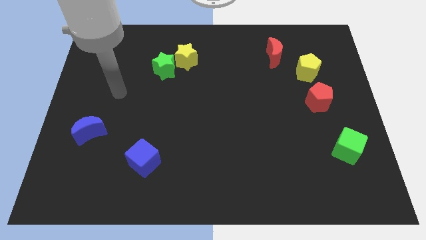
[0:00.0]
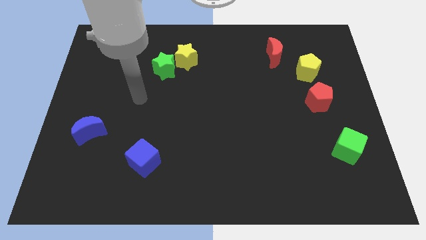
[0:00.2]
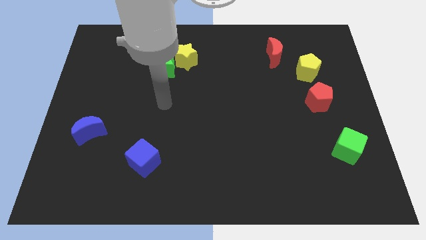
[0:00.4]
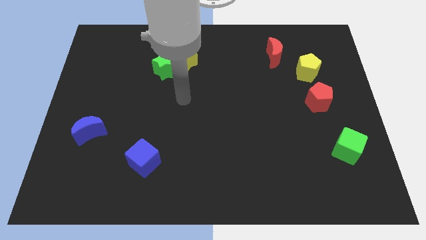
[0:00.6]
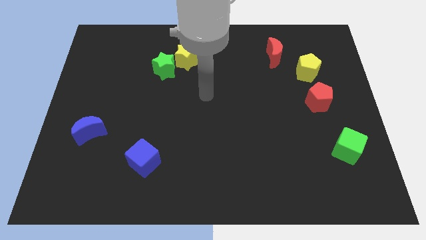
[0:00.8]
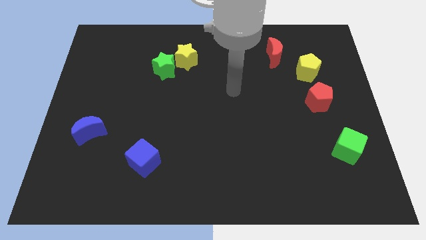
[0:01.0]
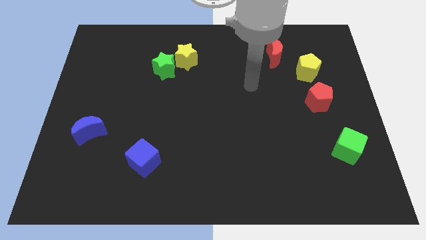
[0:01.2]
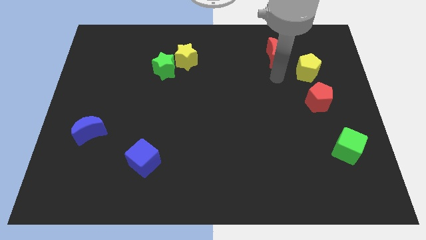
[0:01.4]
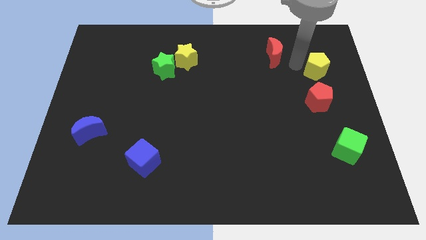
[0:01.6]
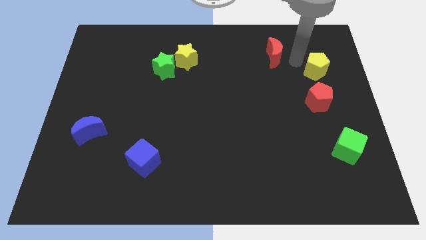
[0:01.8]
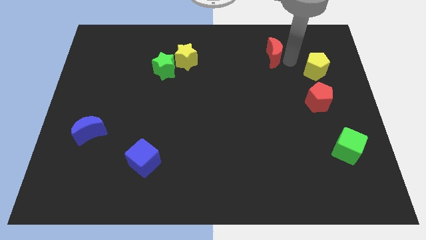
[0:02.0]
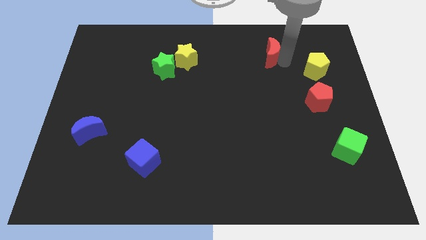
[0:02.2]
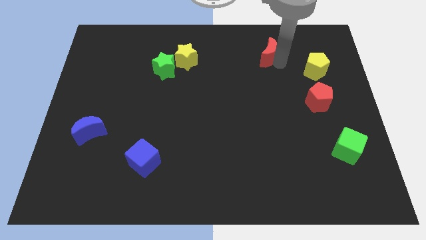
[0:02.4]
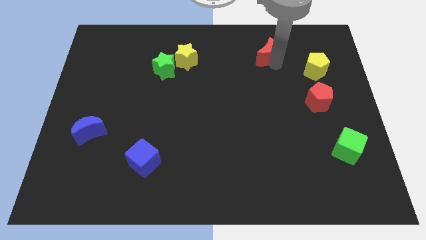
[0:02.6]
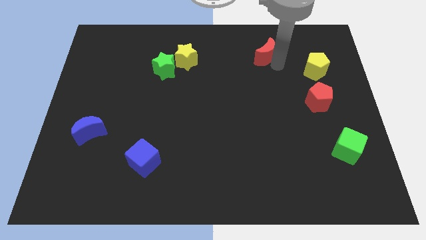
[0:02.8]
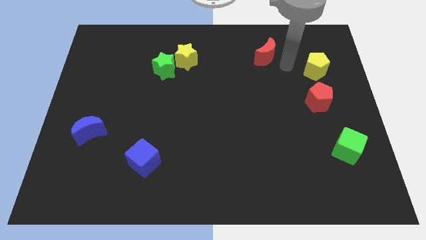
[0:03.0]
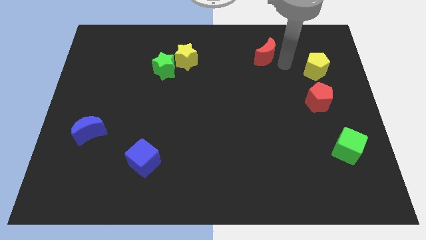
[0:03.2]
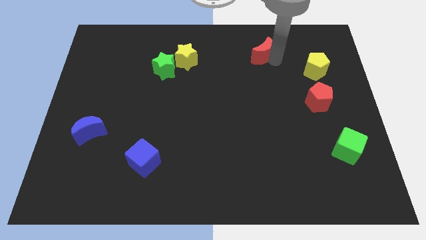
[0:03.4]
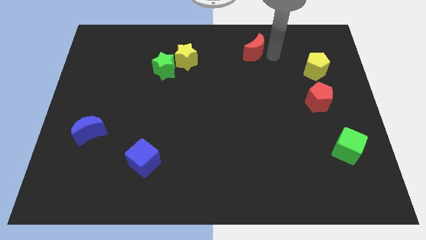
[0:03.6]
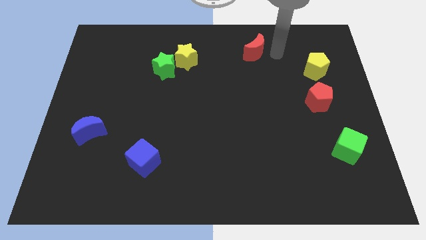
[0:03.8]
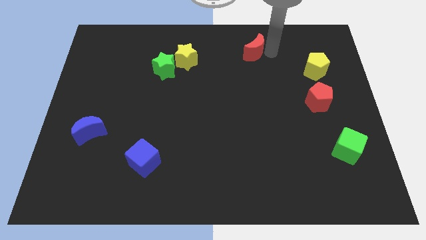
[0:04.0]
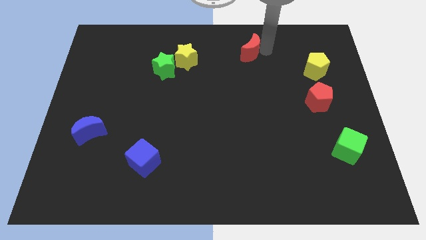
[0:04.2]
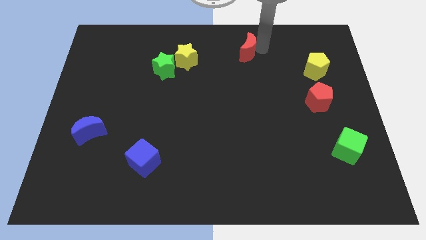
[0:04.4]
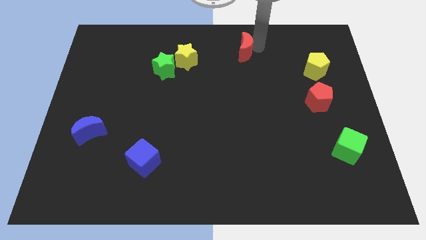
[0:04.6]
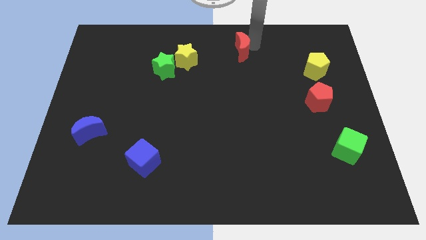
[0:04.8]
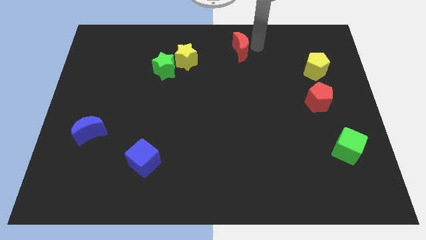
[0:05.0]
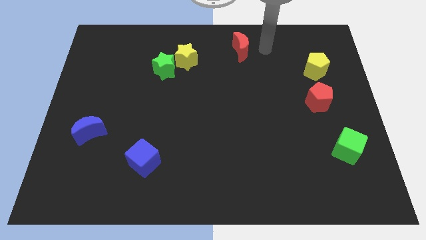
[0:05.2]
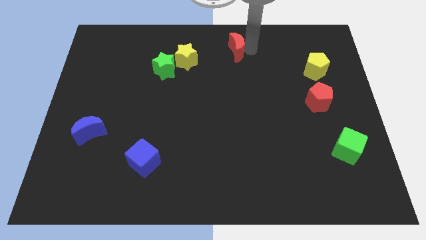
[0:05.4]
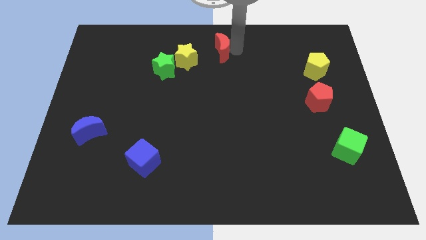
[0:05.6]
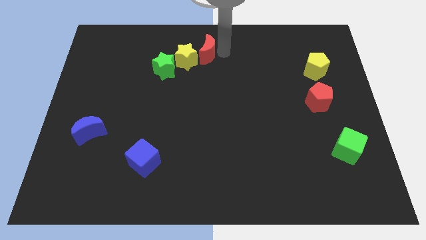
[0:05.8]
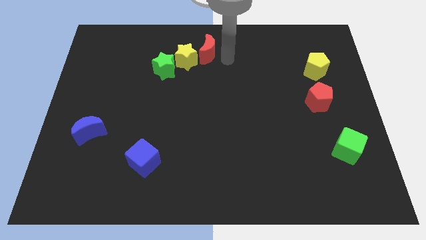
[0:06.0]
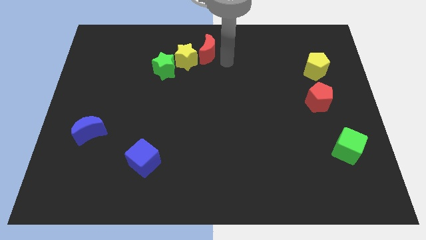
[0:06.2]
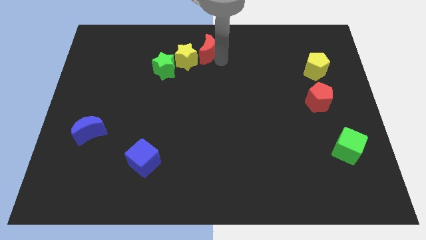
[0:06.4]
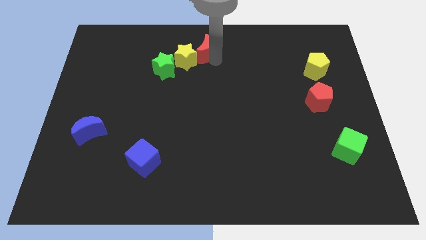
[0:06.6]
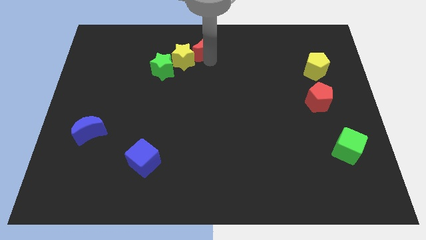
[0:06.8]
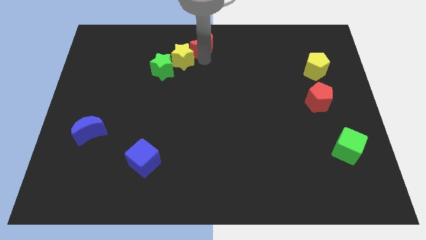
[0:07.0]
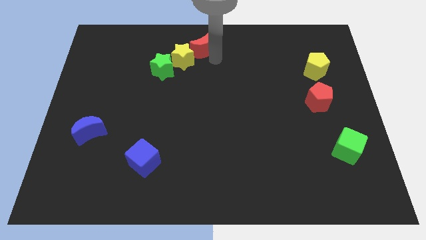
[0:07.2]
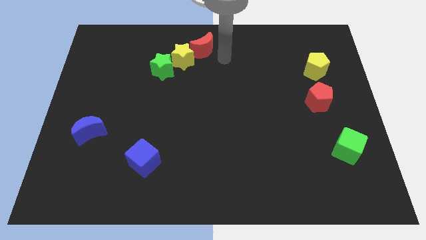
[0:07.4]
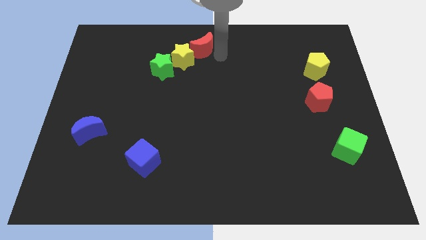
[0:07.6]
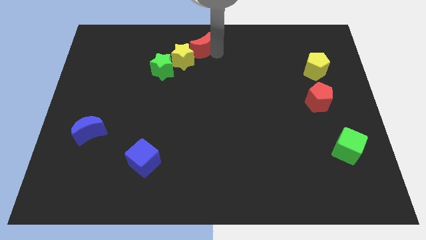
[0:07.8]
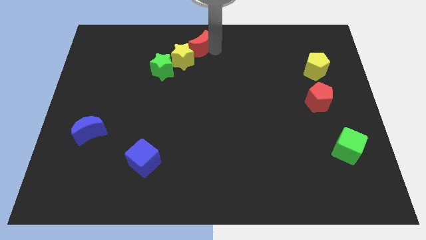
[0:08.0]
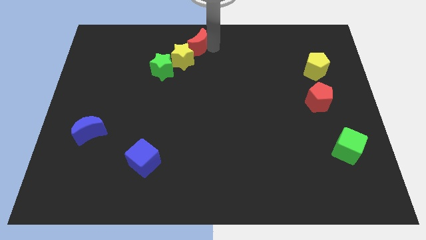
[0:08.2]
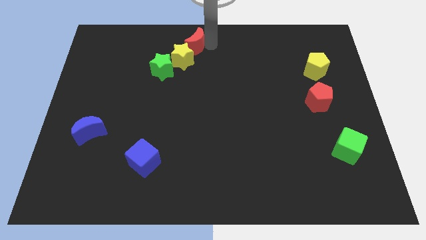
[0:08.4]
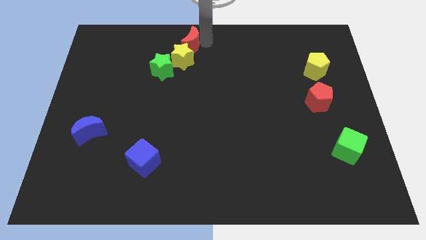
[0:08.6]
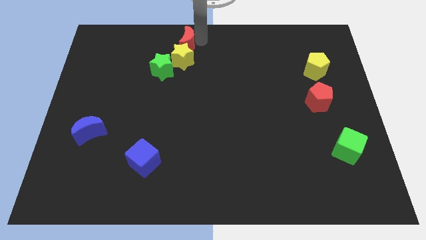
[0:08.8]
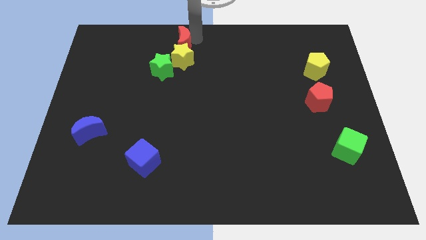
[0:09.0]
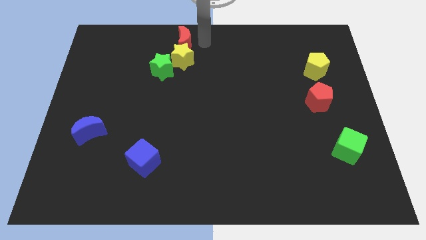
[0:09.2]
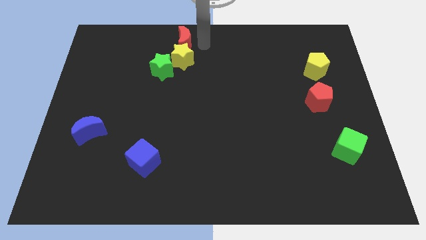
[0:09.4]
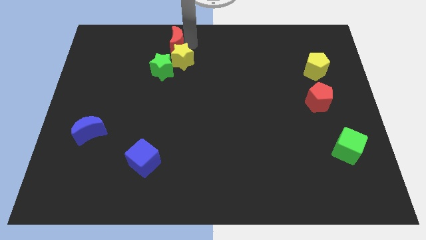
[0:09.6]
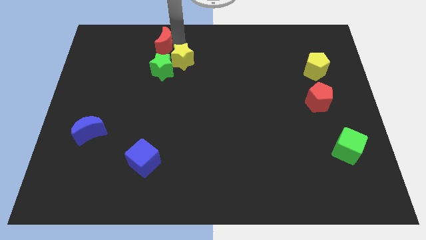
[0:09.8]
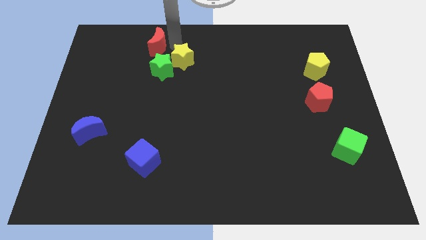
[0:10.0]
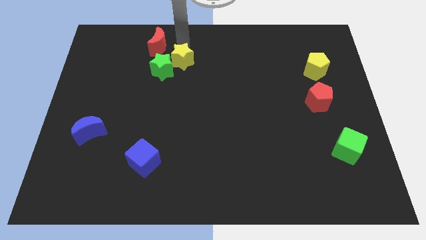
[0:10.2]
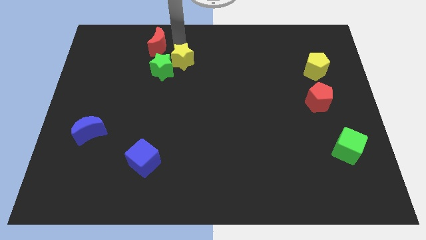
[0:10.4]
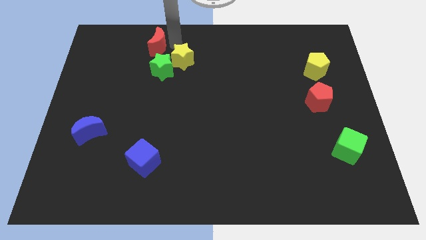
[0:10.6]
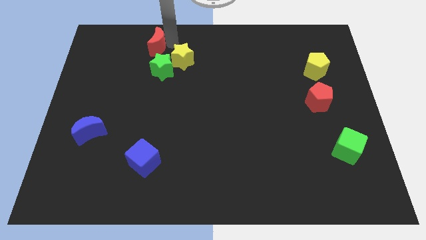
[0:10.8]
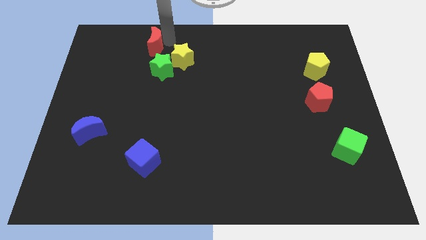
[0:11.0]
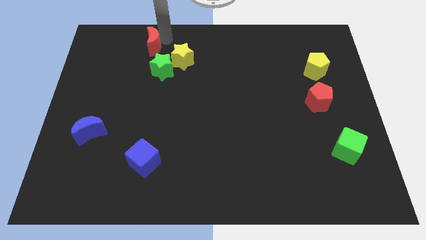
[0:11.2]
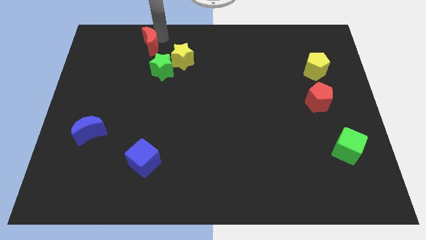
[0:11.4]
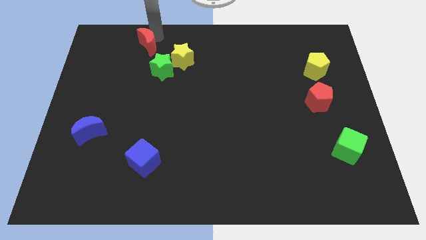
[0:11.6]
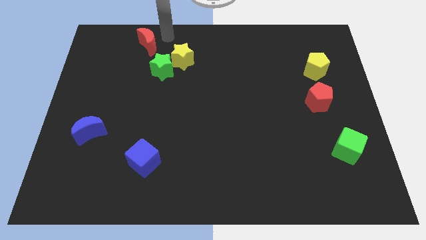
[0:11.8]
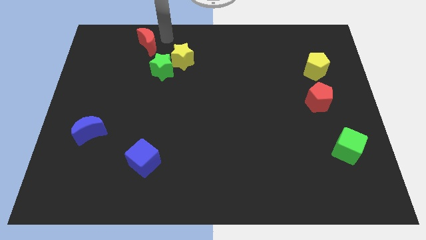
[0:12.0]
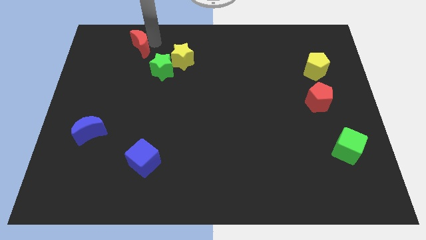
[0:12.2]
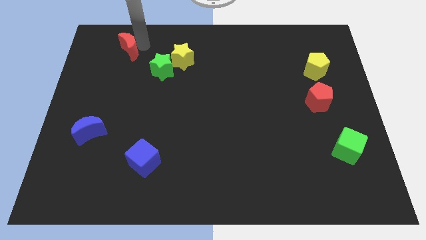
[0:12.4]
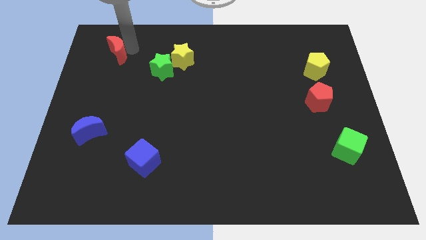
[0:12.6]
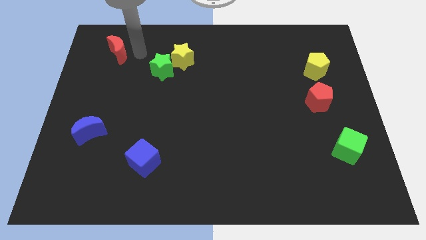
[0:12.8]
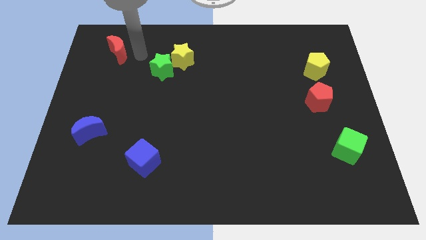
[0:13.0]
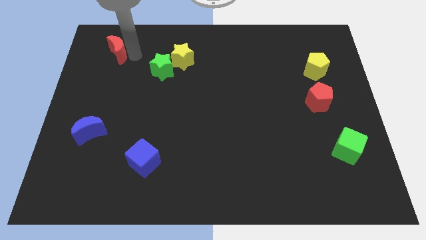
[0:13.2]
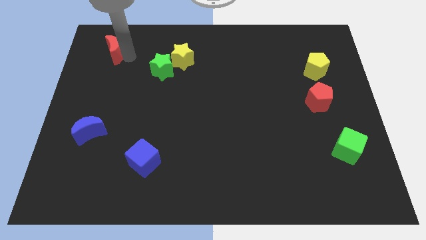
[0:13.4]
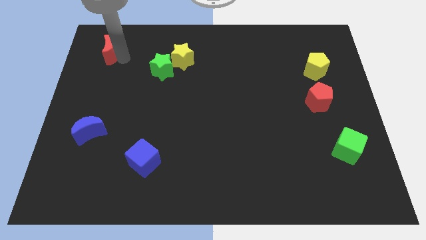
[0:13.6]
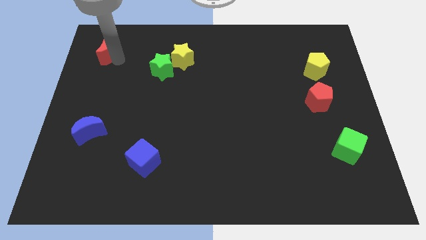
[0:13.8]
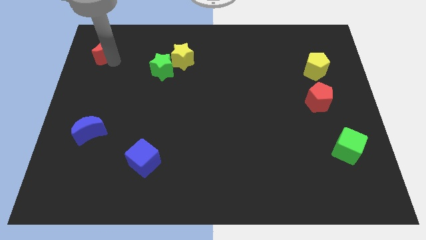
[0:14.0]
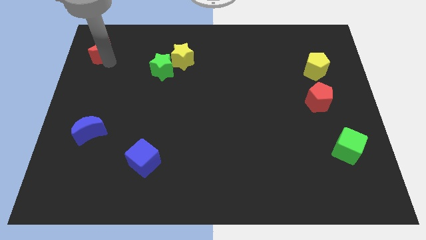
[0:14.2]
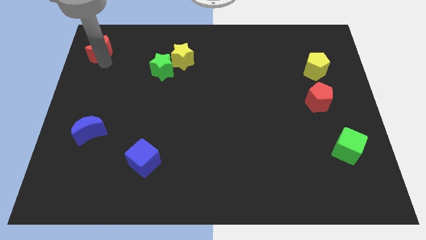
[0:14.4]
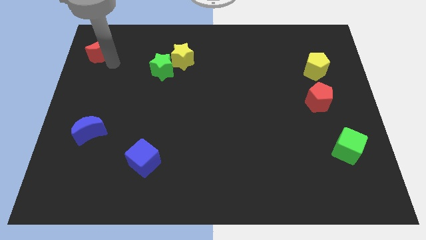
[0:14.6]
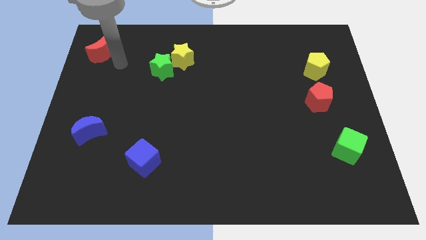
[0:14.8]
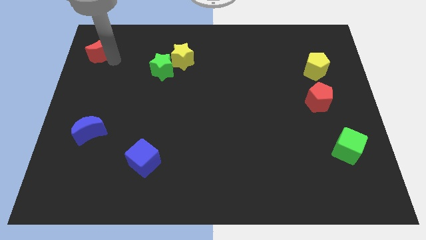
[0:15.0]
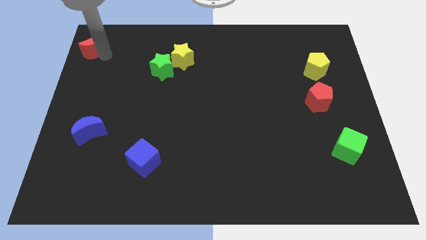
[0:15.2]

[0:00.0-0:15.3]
move the red moon to the top left corner
